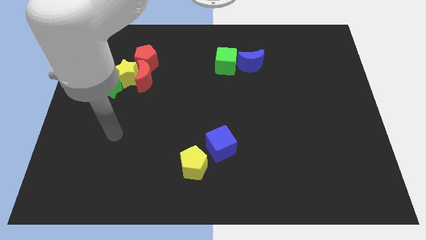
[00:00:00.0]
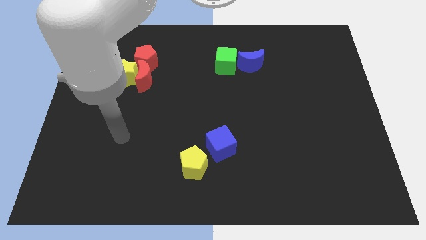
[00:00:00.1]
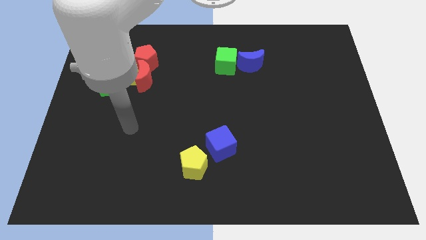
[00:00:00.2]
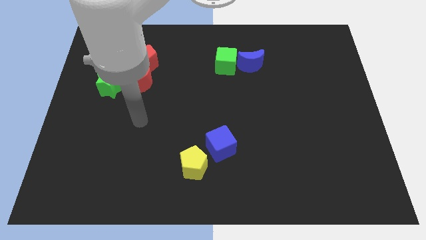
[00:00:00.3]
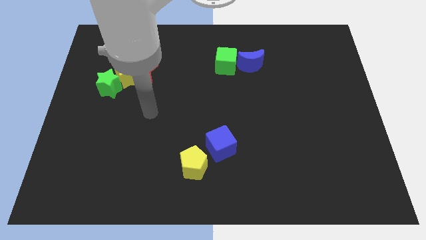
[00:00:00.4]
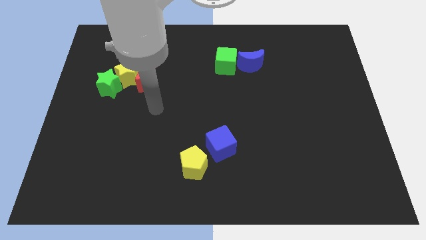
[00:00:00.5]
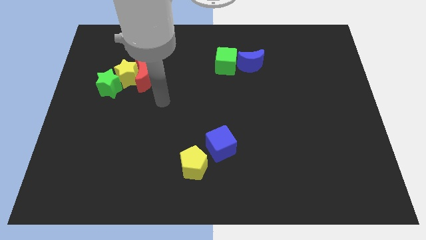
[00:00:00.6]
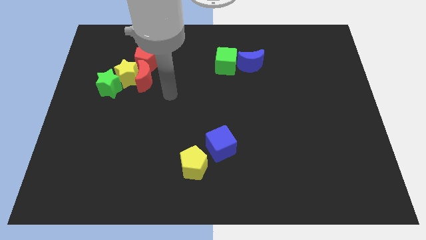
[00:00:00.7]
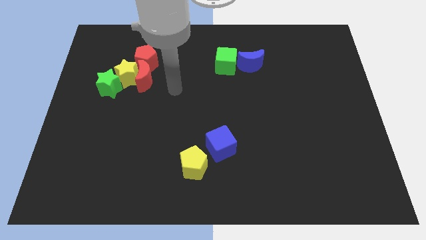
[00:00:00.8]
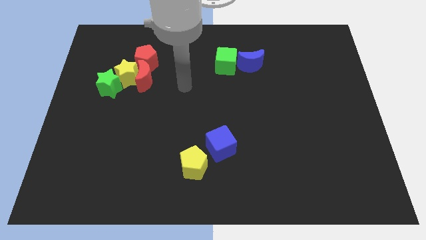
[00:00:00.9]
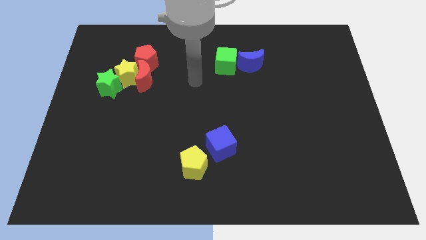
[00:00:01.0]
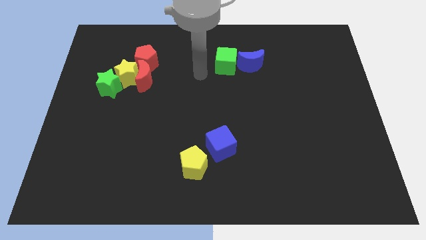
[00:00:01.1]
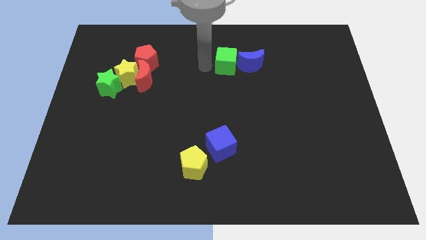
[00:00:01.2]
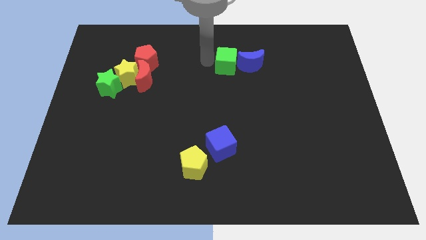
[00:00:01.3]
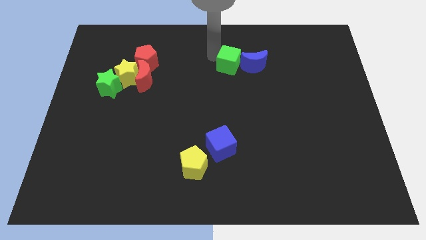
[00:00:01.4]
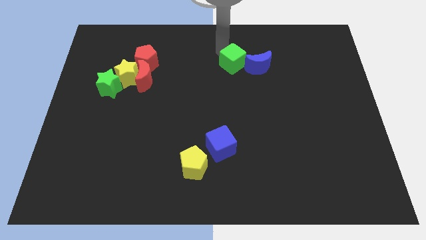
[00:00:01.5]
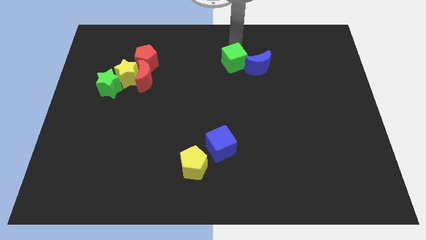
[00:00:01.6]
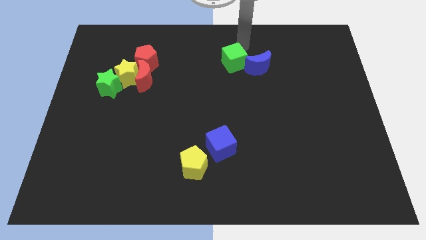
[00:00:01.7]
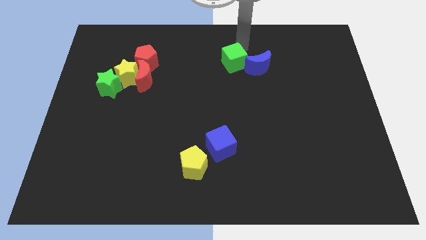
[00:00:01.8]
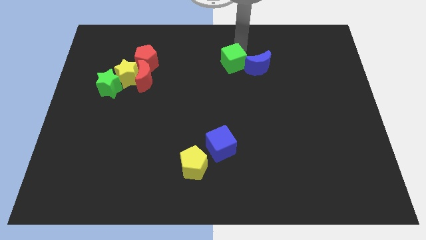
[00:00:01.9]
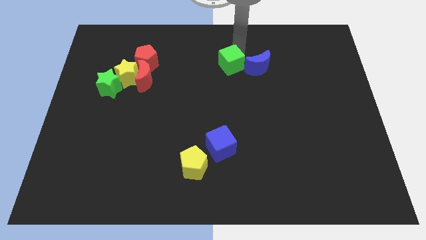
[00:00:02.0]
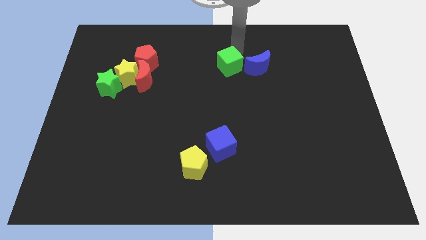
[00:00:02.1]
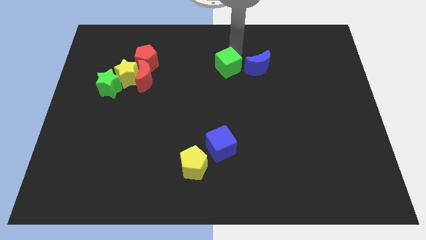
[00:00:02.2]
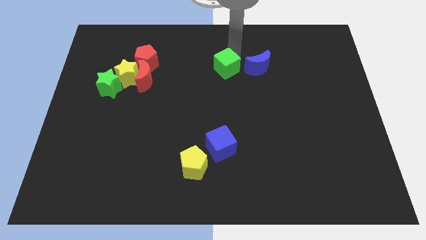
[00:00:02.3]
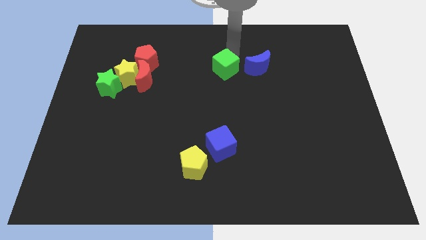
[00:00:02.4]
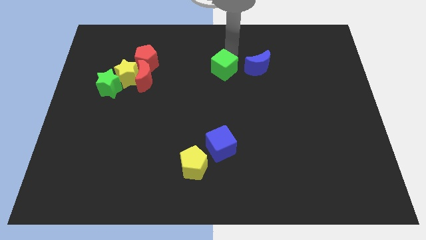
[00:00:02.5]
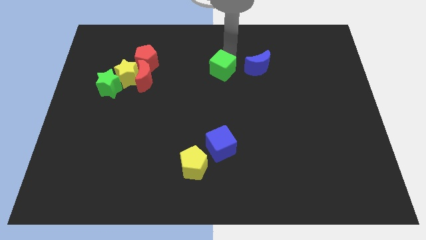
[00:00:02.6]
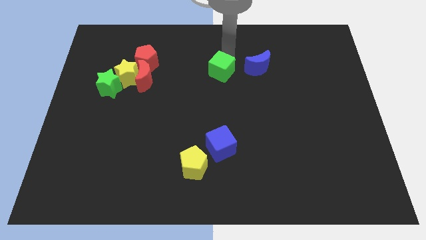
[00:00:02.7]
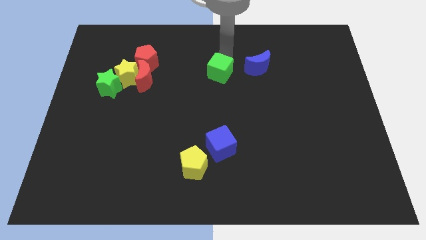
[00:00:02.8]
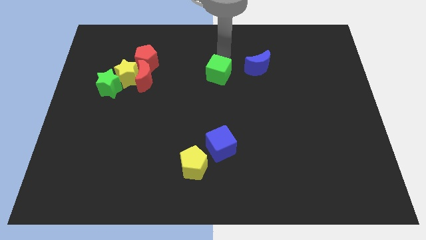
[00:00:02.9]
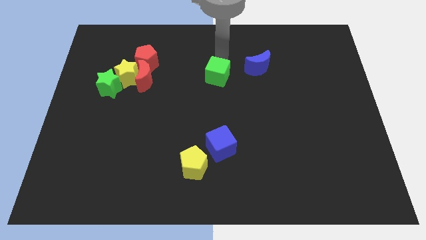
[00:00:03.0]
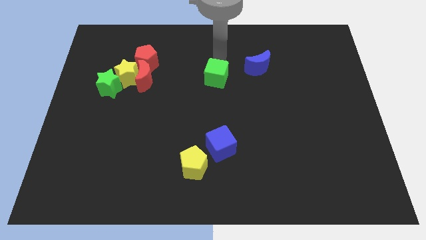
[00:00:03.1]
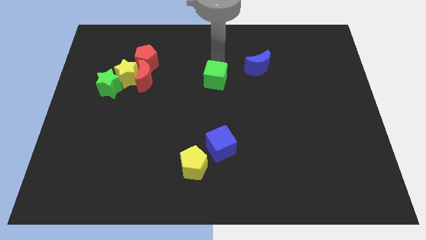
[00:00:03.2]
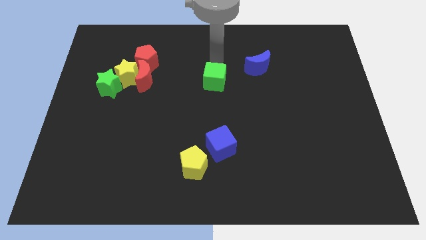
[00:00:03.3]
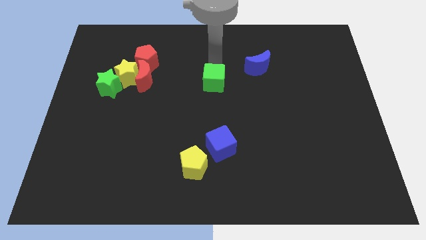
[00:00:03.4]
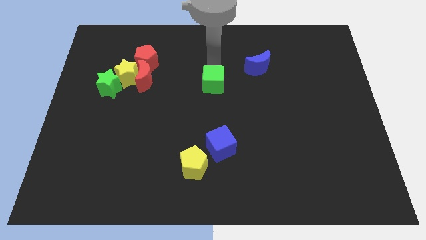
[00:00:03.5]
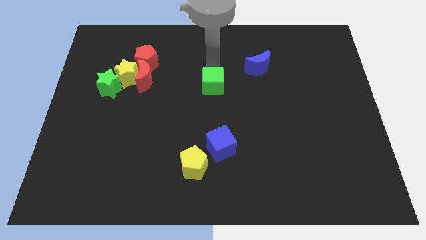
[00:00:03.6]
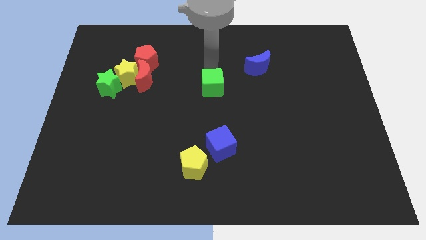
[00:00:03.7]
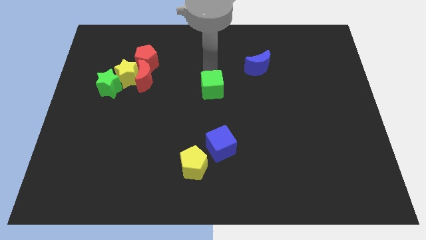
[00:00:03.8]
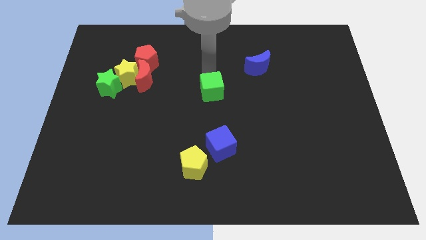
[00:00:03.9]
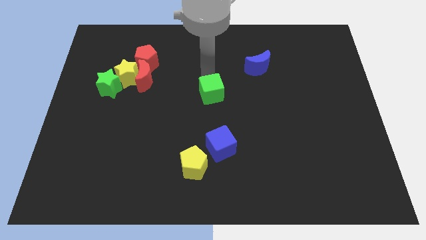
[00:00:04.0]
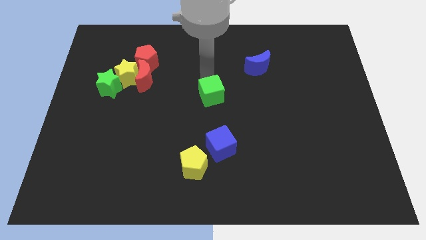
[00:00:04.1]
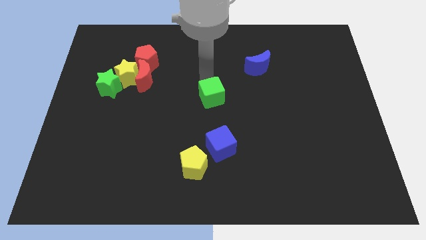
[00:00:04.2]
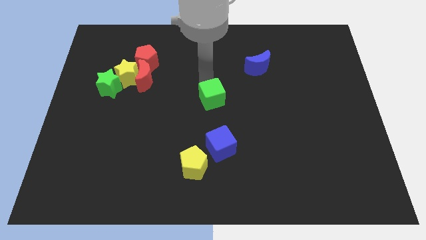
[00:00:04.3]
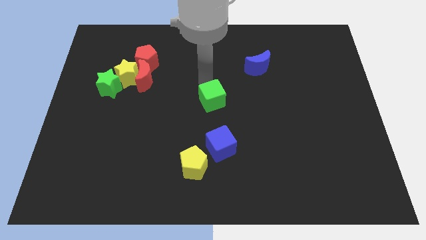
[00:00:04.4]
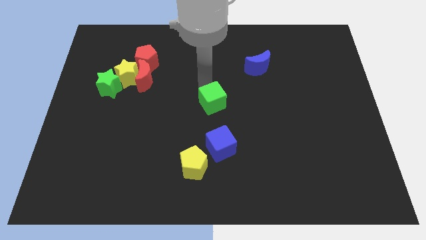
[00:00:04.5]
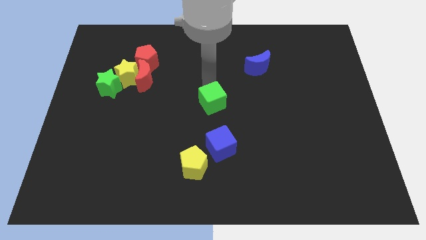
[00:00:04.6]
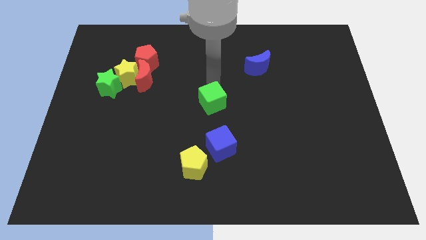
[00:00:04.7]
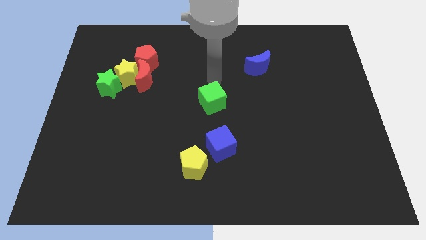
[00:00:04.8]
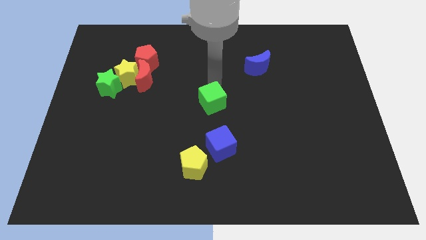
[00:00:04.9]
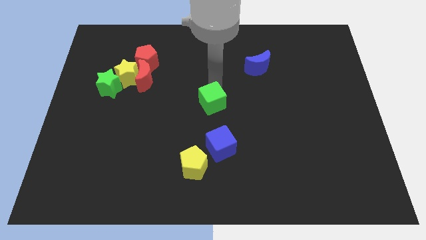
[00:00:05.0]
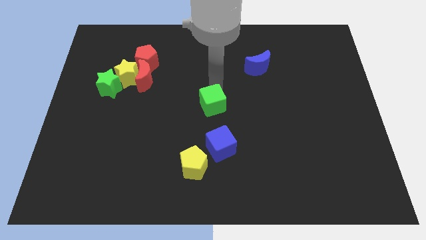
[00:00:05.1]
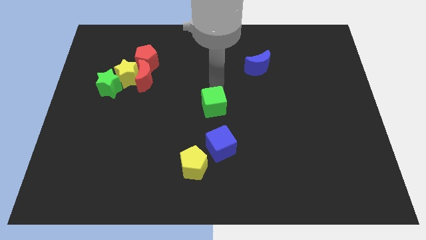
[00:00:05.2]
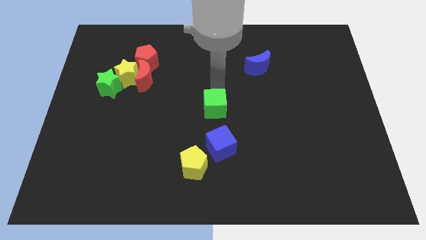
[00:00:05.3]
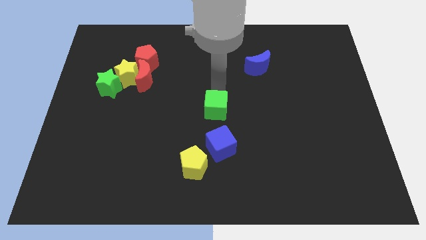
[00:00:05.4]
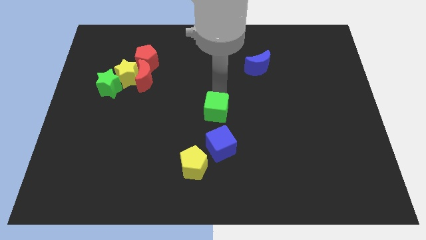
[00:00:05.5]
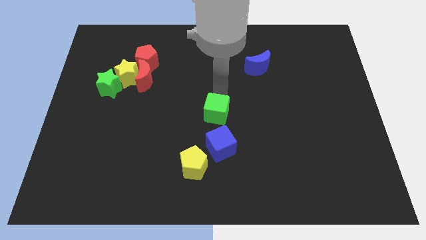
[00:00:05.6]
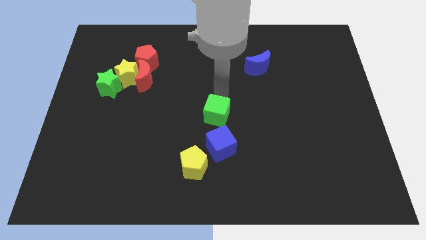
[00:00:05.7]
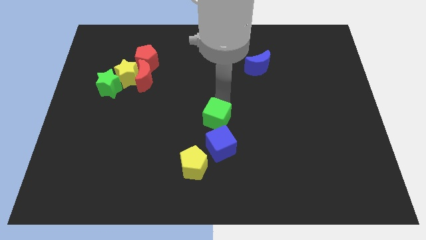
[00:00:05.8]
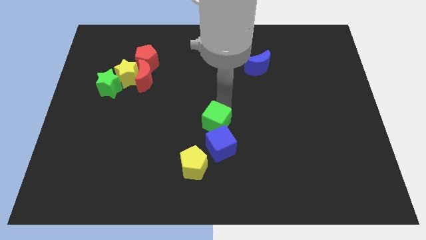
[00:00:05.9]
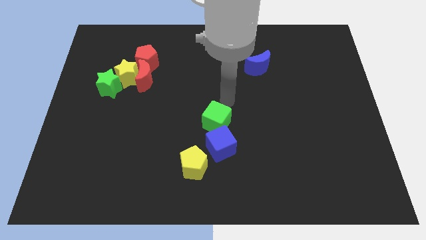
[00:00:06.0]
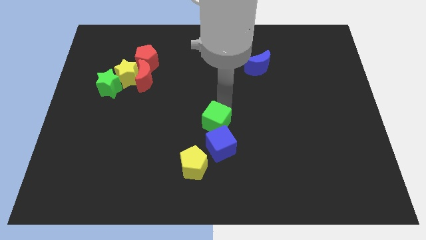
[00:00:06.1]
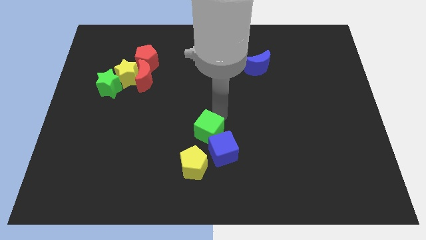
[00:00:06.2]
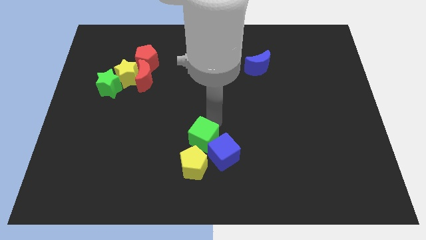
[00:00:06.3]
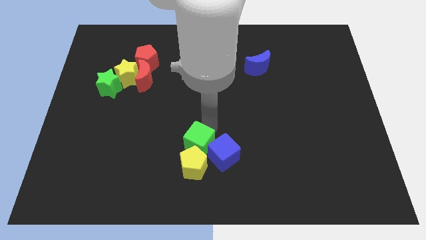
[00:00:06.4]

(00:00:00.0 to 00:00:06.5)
move the green cube towards the yellow pentagon

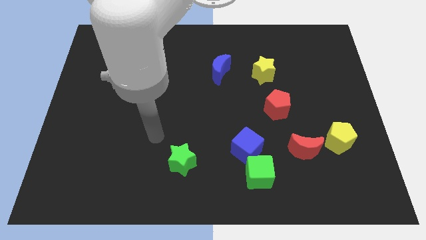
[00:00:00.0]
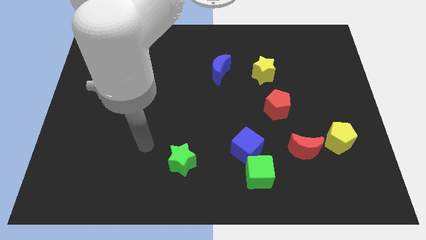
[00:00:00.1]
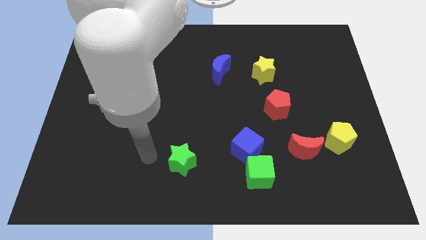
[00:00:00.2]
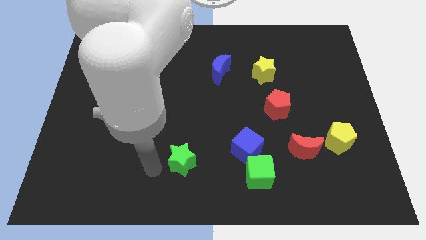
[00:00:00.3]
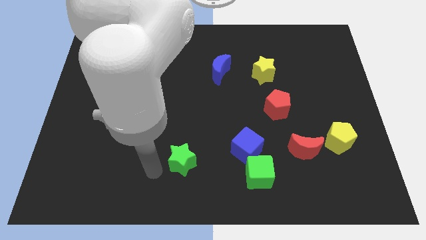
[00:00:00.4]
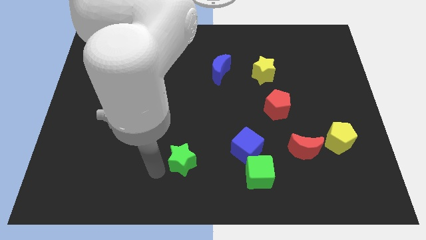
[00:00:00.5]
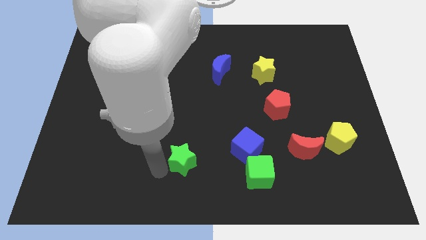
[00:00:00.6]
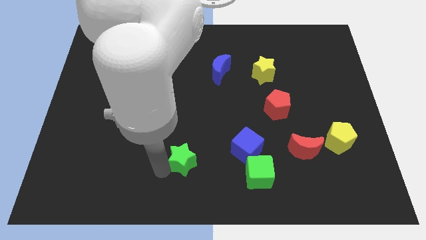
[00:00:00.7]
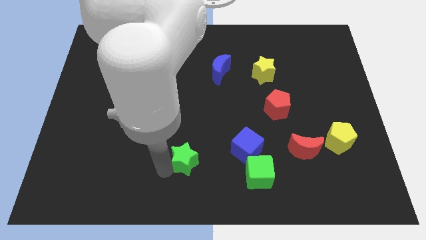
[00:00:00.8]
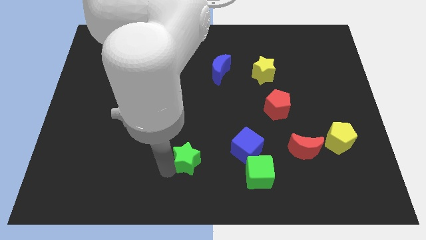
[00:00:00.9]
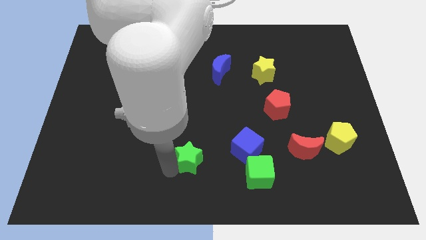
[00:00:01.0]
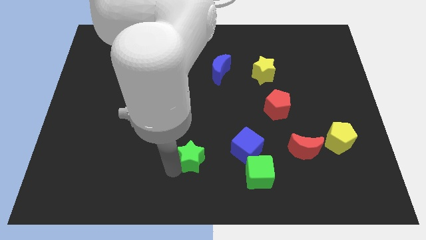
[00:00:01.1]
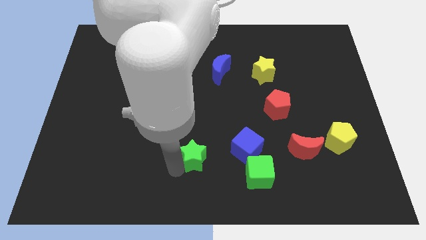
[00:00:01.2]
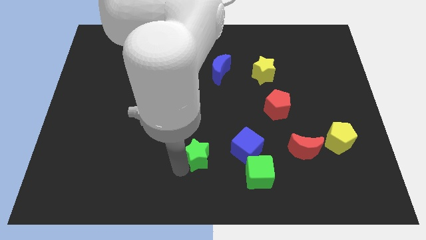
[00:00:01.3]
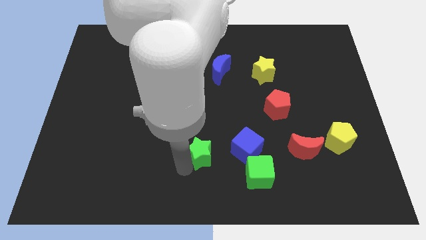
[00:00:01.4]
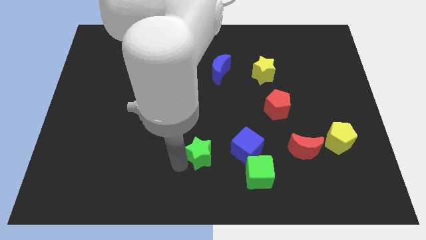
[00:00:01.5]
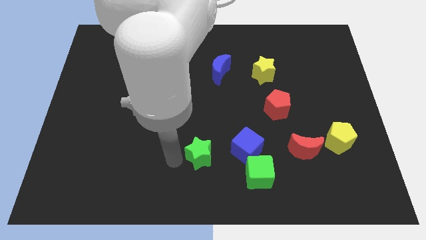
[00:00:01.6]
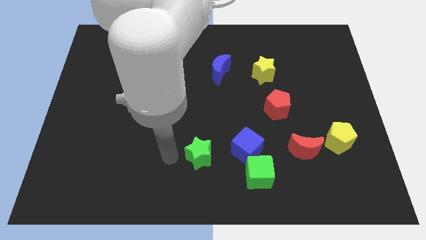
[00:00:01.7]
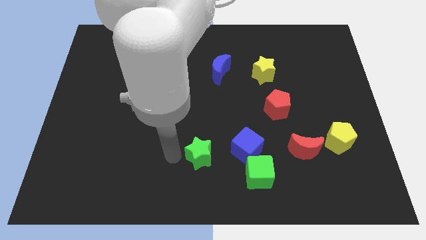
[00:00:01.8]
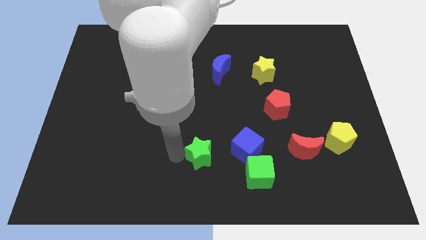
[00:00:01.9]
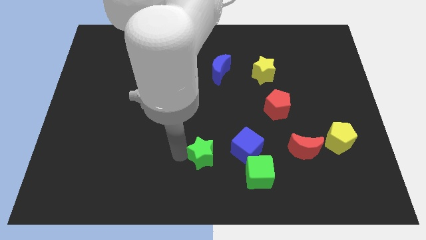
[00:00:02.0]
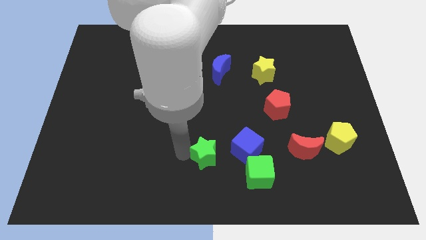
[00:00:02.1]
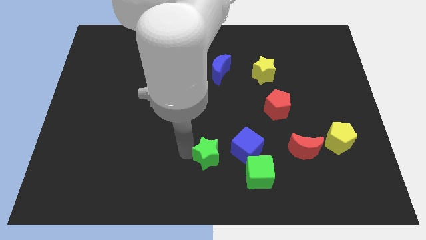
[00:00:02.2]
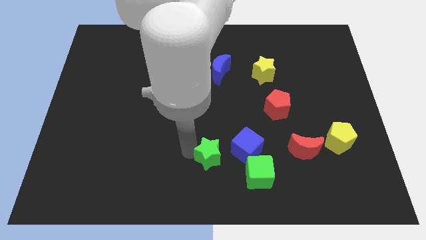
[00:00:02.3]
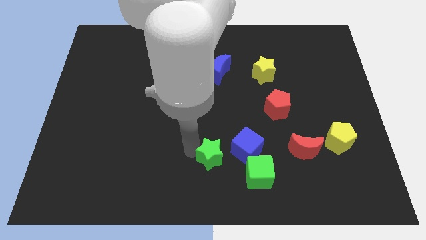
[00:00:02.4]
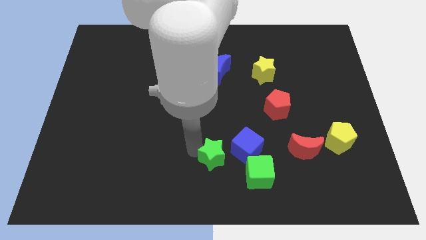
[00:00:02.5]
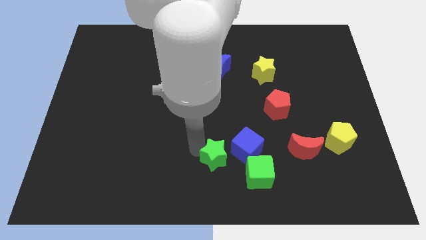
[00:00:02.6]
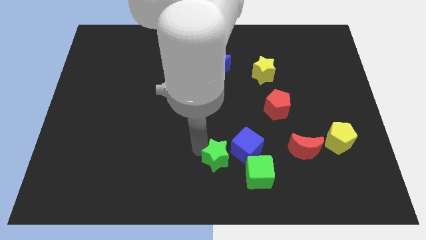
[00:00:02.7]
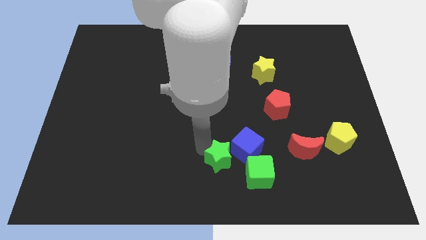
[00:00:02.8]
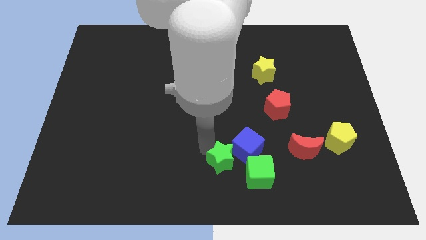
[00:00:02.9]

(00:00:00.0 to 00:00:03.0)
put the green star next to the blue cube
